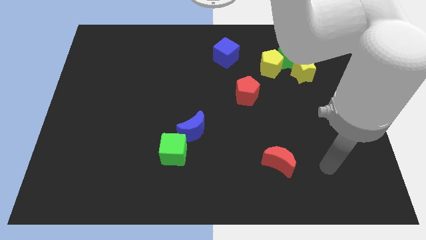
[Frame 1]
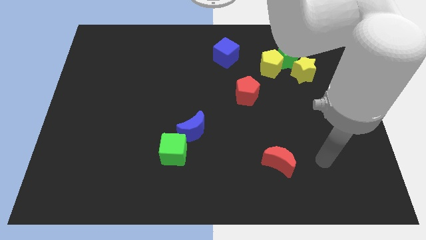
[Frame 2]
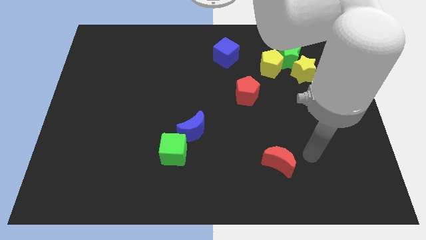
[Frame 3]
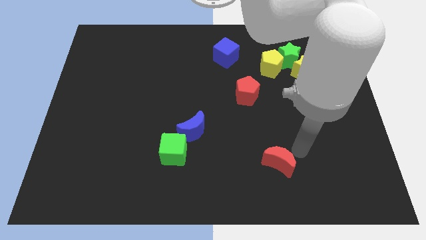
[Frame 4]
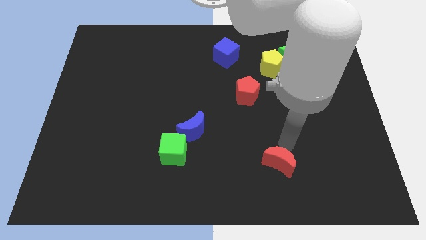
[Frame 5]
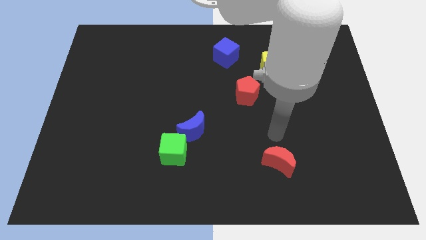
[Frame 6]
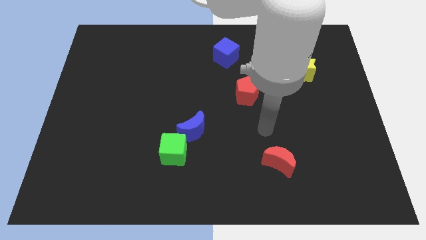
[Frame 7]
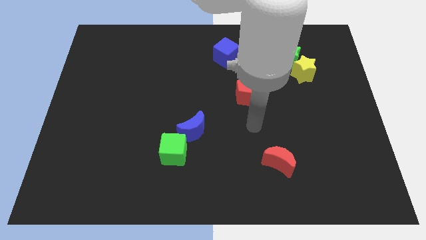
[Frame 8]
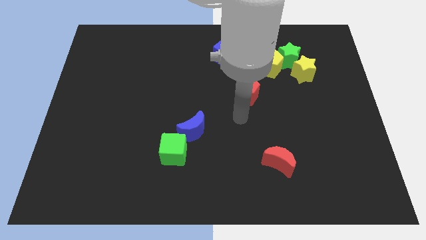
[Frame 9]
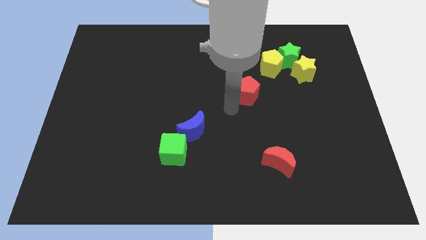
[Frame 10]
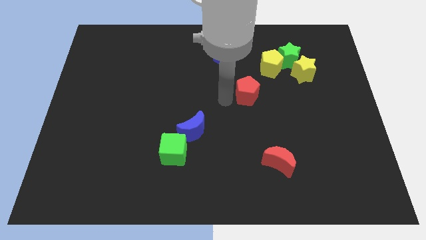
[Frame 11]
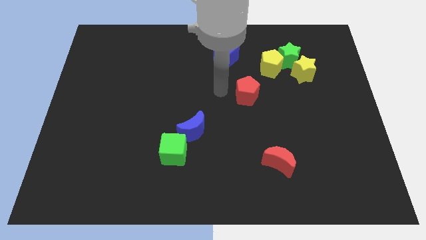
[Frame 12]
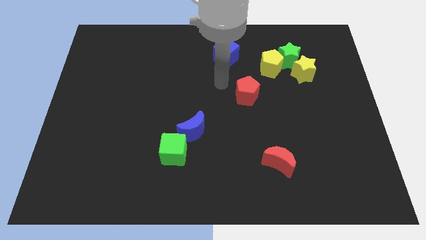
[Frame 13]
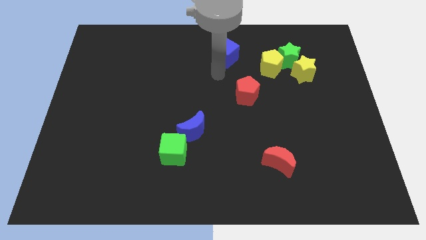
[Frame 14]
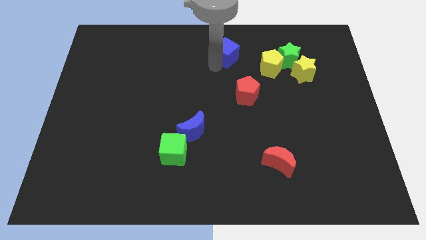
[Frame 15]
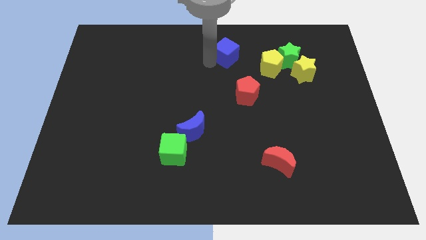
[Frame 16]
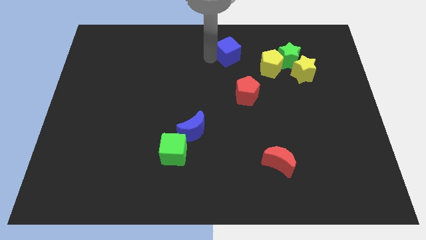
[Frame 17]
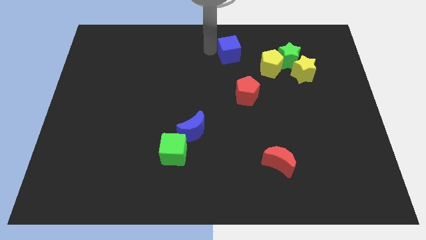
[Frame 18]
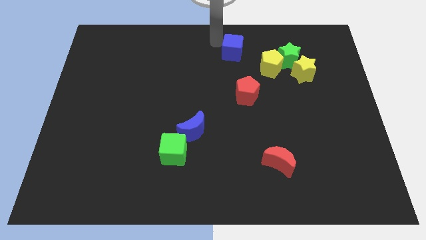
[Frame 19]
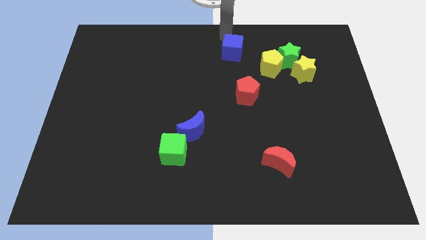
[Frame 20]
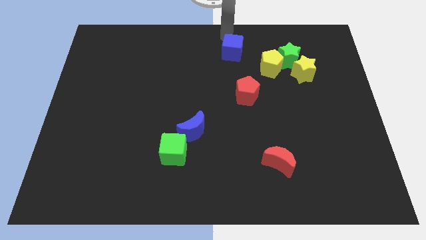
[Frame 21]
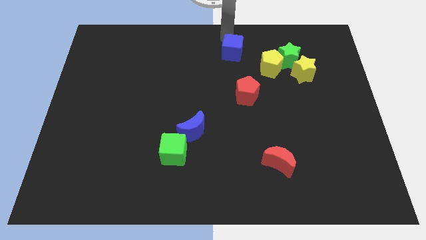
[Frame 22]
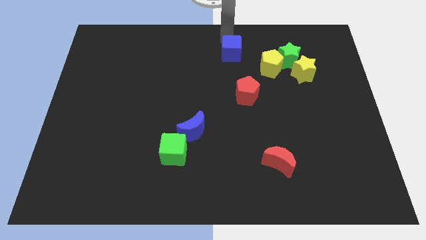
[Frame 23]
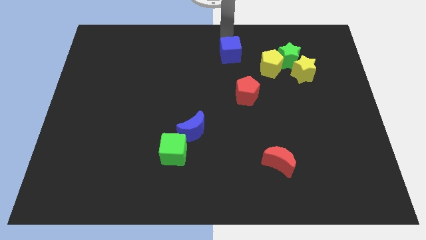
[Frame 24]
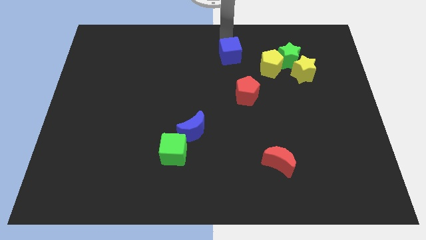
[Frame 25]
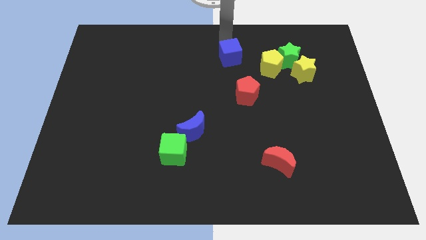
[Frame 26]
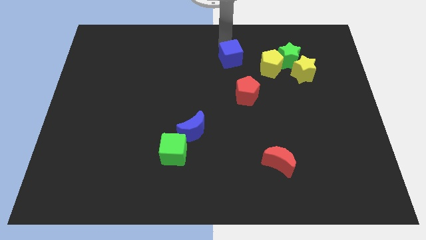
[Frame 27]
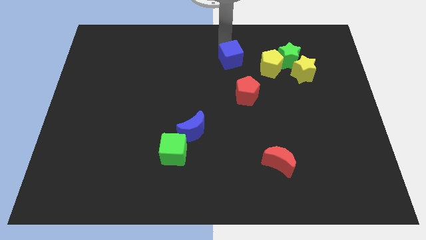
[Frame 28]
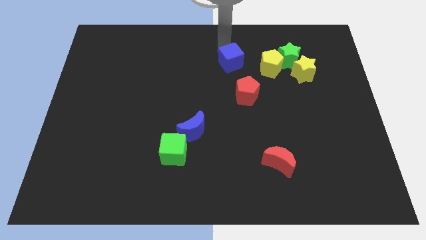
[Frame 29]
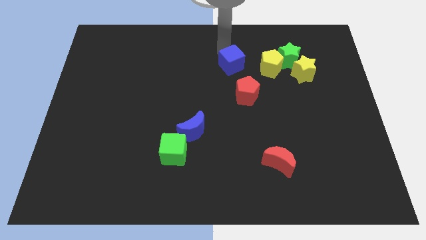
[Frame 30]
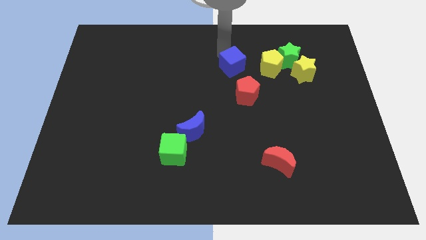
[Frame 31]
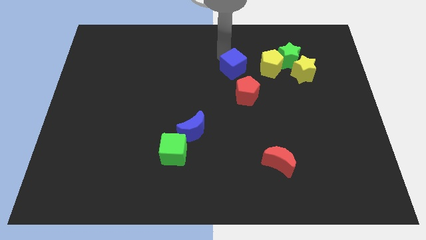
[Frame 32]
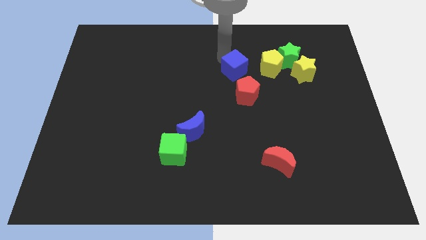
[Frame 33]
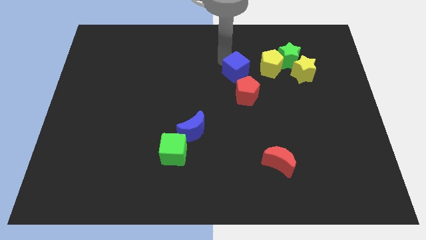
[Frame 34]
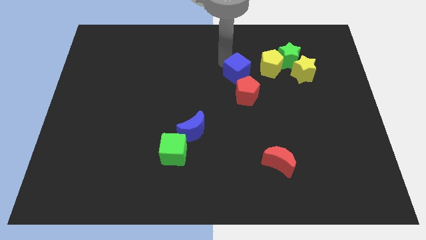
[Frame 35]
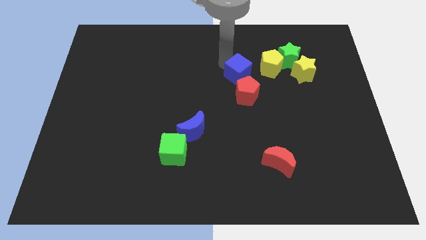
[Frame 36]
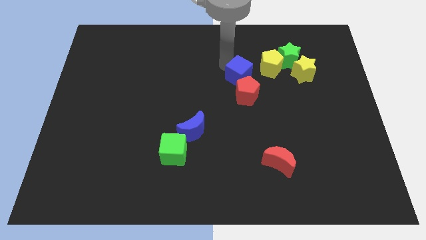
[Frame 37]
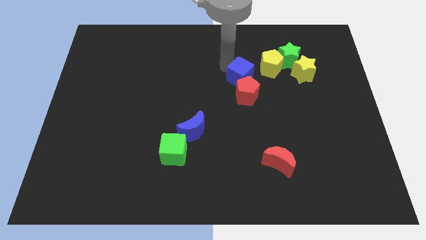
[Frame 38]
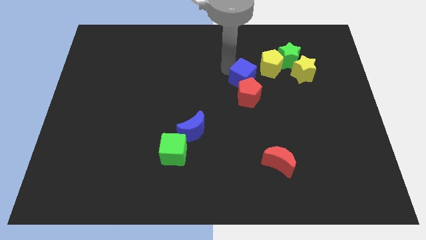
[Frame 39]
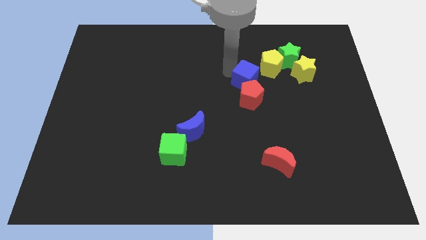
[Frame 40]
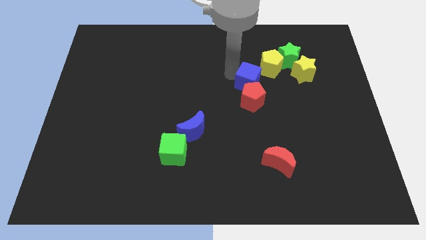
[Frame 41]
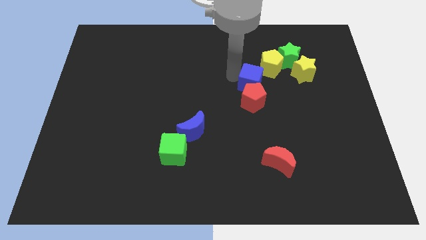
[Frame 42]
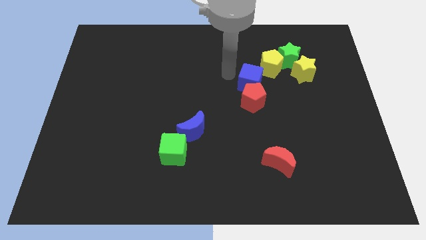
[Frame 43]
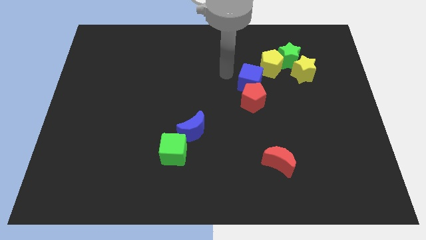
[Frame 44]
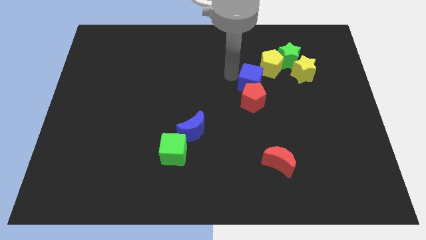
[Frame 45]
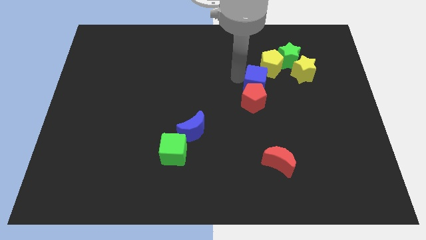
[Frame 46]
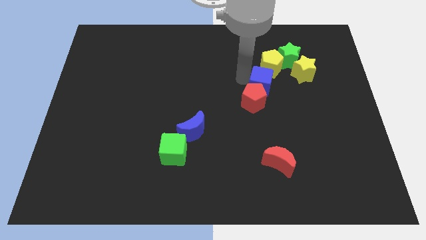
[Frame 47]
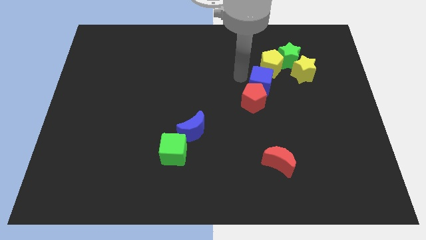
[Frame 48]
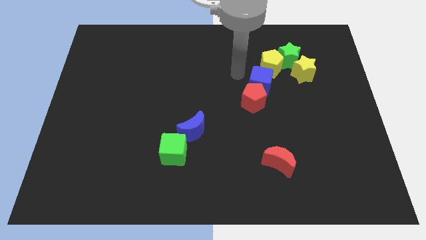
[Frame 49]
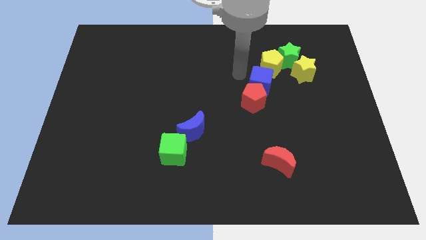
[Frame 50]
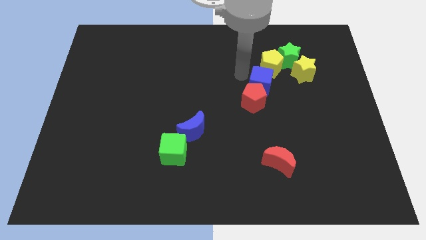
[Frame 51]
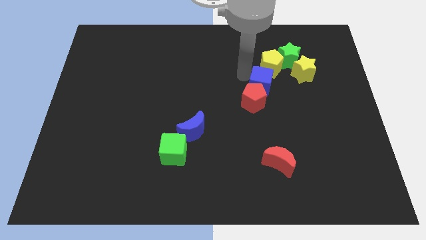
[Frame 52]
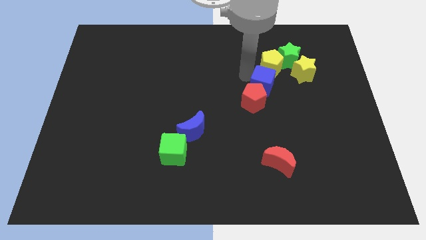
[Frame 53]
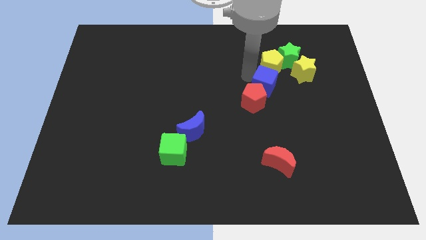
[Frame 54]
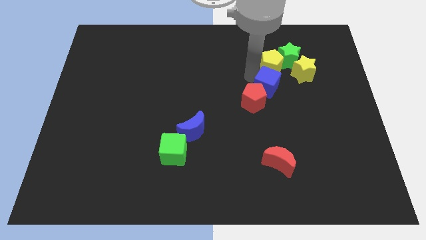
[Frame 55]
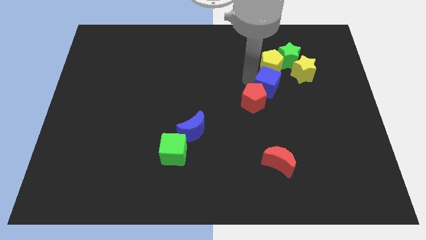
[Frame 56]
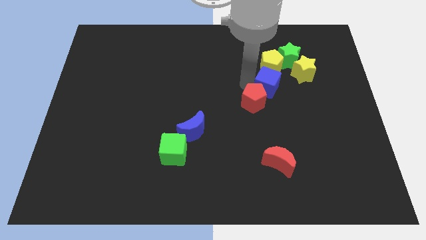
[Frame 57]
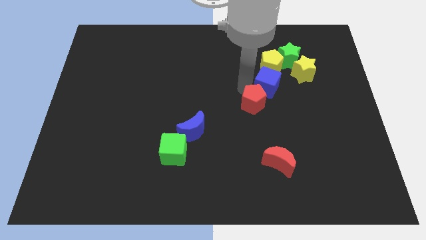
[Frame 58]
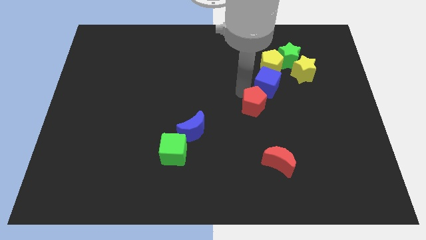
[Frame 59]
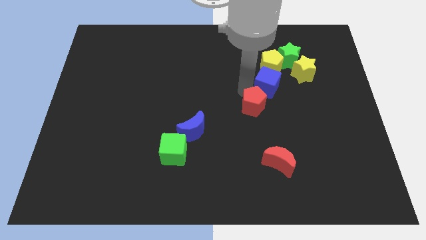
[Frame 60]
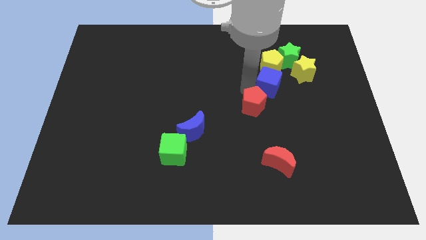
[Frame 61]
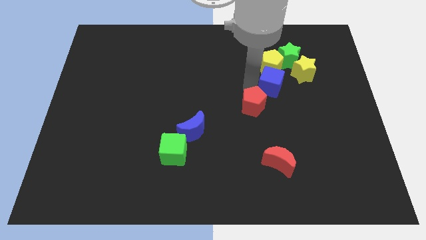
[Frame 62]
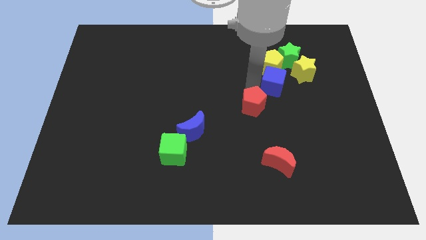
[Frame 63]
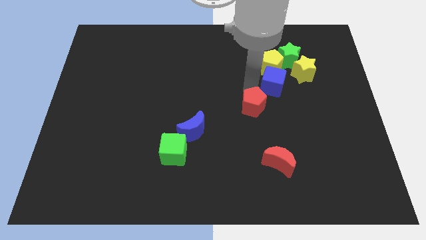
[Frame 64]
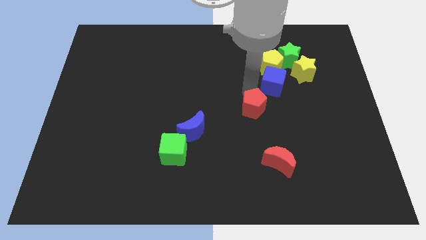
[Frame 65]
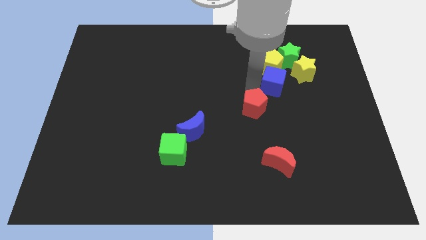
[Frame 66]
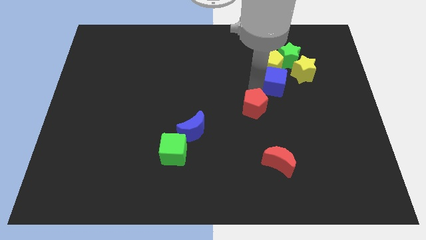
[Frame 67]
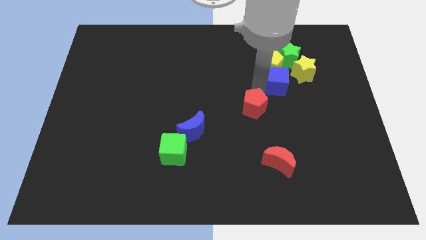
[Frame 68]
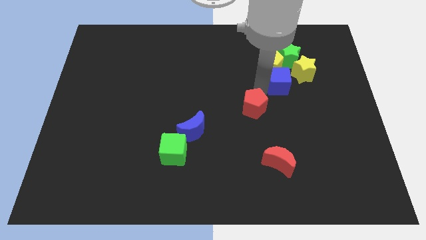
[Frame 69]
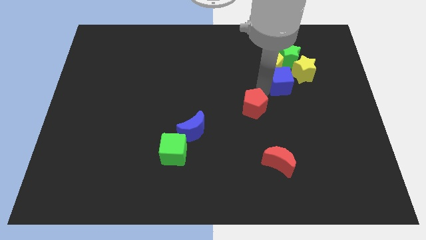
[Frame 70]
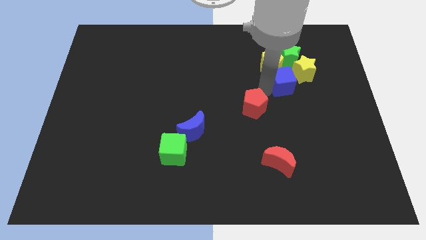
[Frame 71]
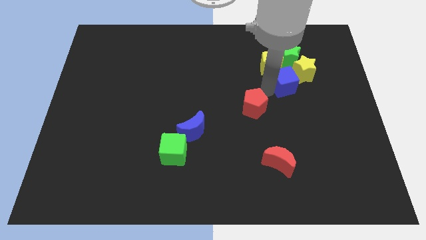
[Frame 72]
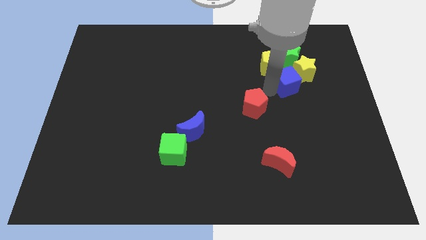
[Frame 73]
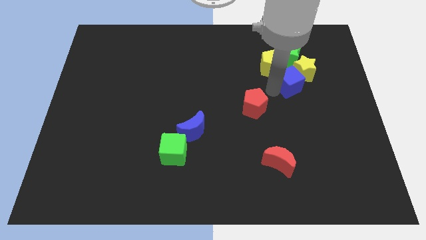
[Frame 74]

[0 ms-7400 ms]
put the blue cube towards the yellow star
